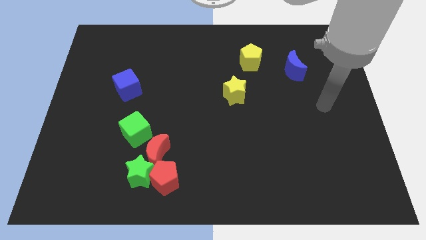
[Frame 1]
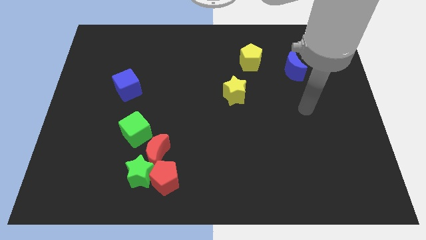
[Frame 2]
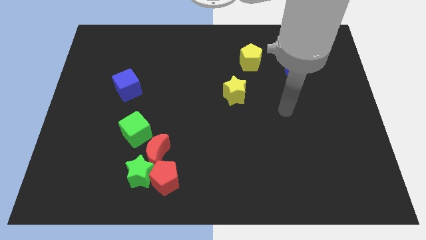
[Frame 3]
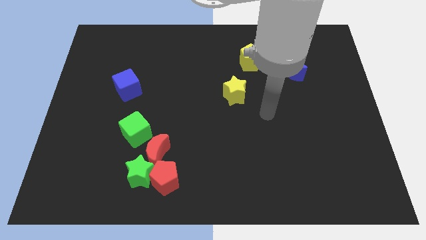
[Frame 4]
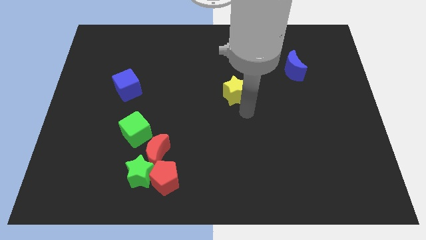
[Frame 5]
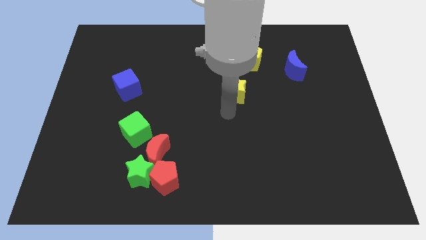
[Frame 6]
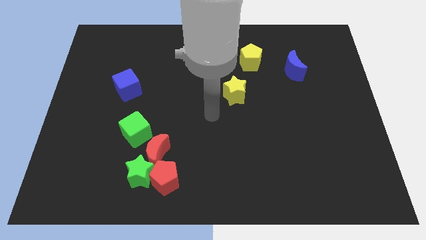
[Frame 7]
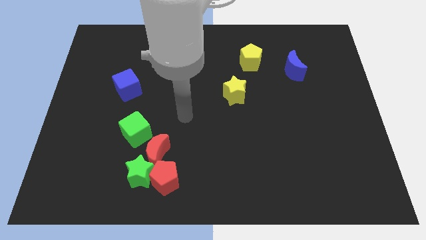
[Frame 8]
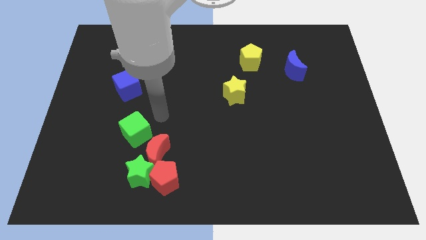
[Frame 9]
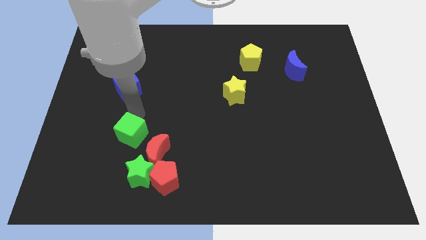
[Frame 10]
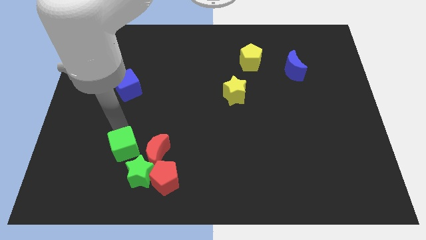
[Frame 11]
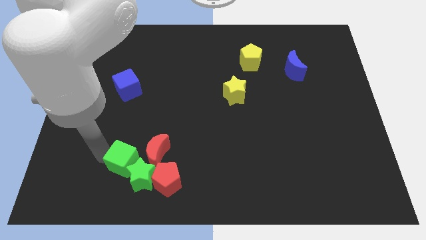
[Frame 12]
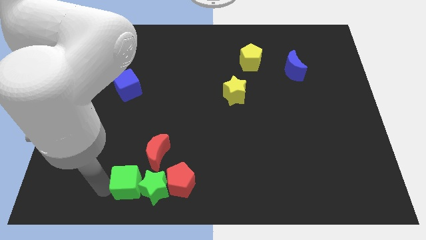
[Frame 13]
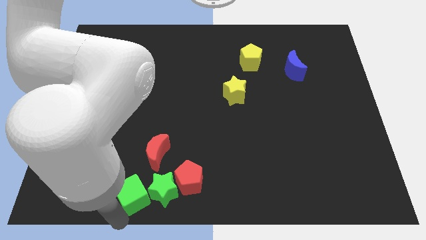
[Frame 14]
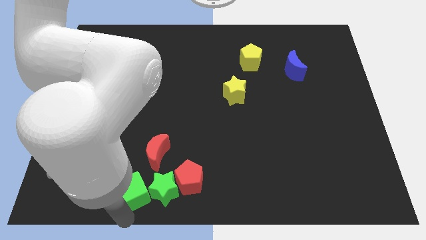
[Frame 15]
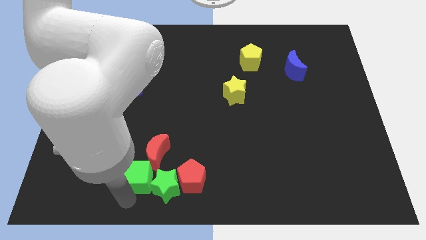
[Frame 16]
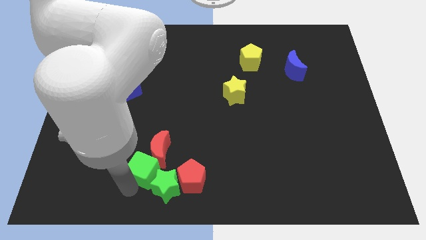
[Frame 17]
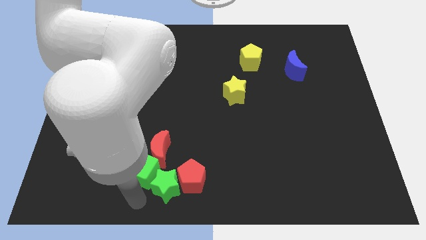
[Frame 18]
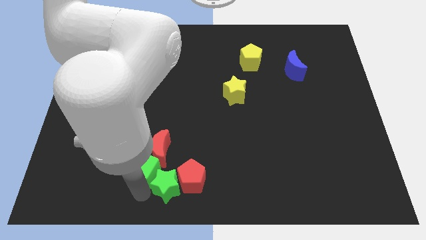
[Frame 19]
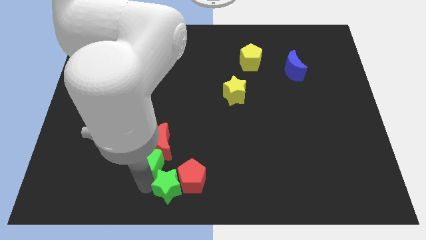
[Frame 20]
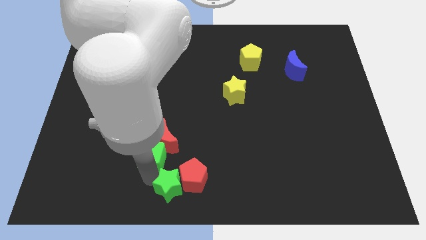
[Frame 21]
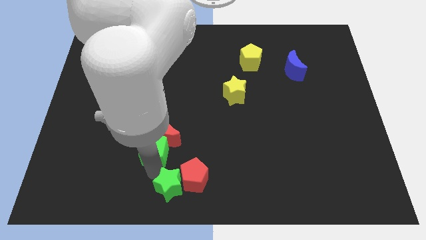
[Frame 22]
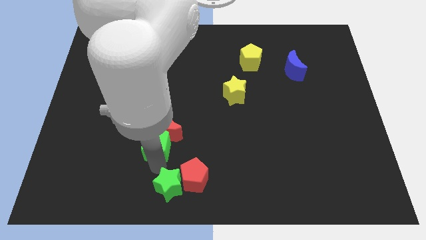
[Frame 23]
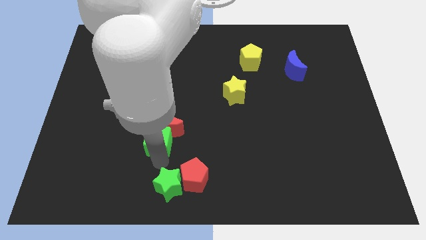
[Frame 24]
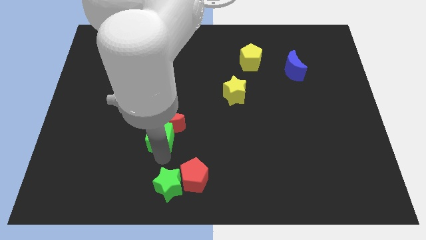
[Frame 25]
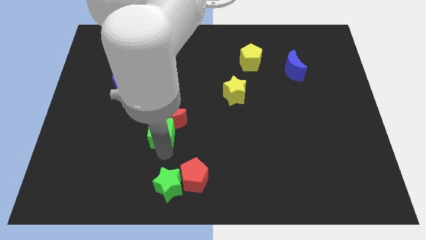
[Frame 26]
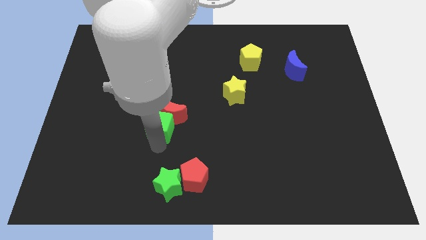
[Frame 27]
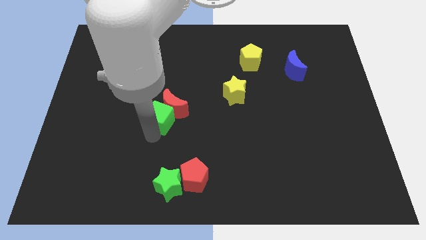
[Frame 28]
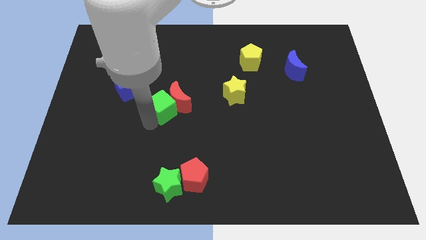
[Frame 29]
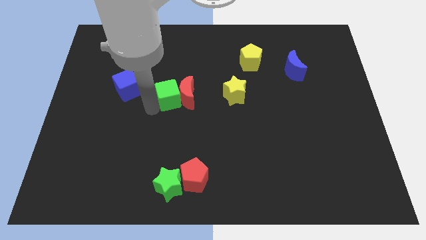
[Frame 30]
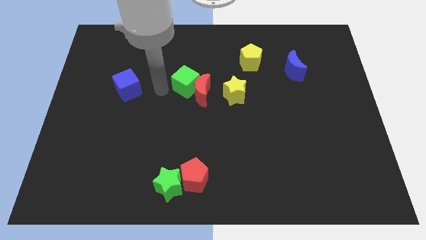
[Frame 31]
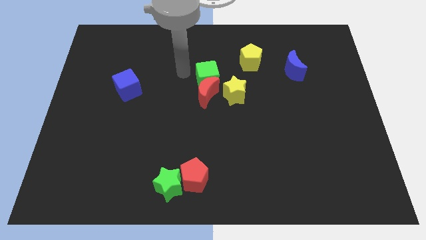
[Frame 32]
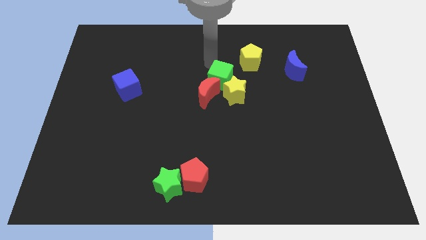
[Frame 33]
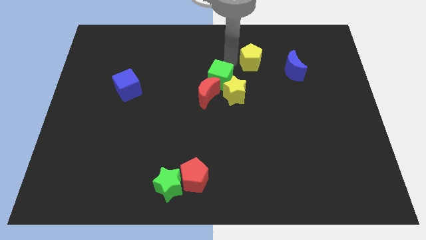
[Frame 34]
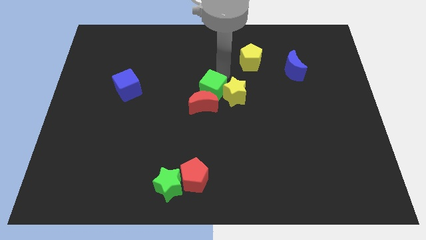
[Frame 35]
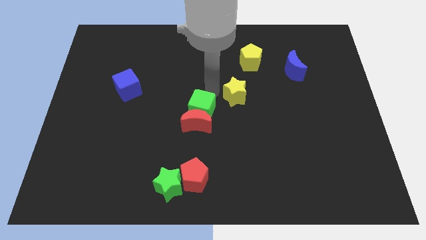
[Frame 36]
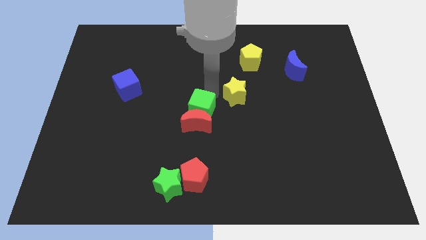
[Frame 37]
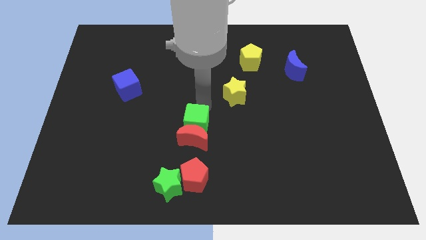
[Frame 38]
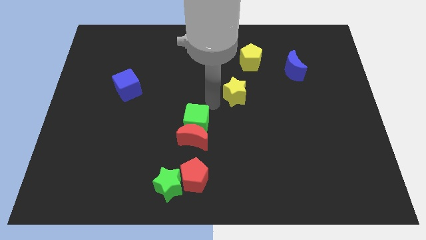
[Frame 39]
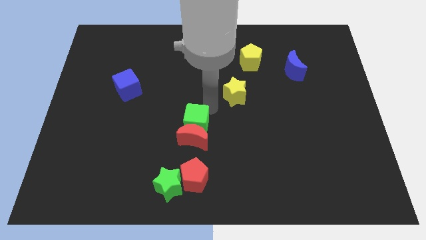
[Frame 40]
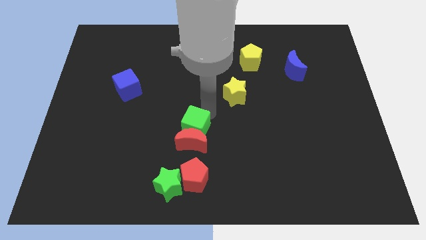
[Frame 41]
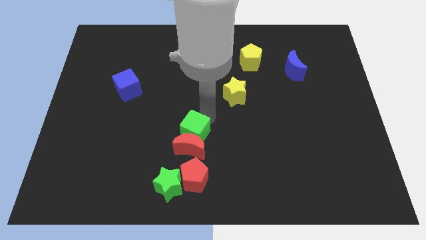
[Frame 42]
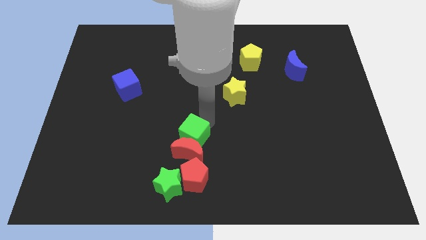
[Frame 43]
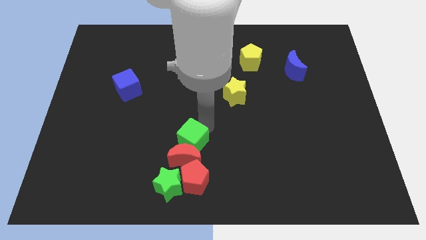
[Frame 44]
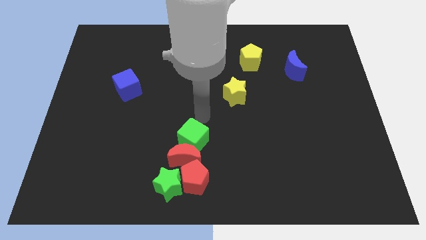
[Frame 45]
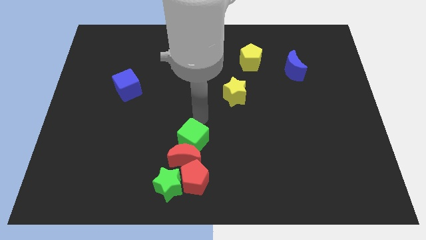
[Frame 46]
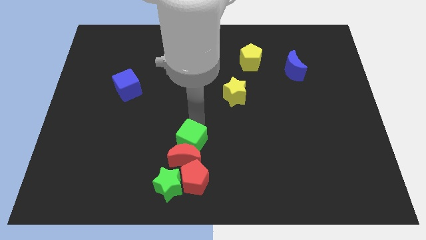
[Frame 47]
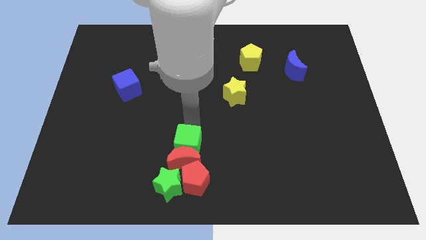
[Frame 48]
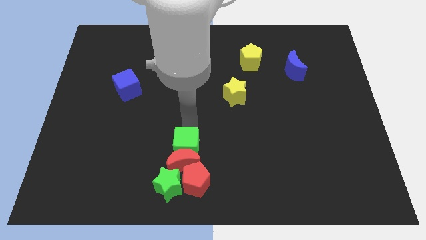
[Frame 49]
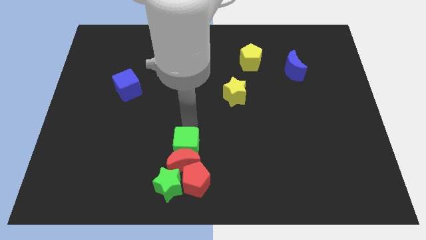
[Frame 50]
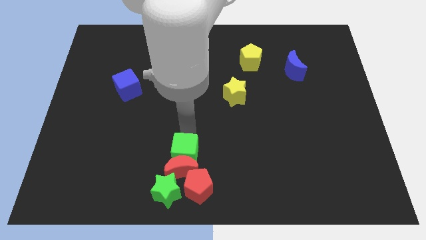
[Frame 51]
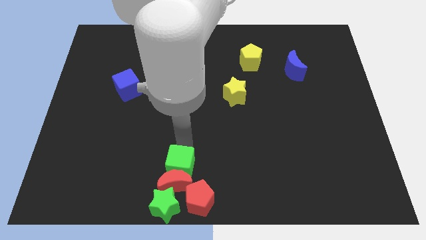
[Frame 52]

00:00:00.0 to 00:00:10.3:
push the green cube to the bottom

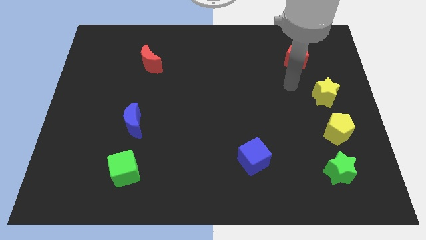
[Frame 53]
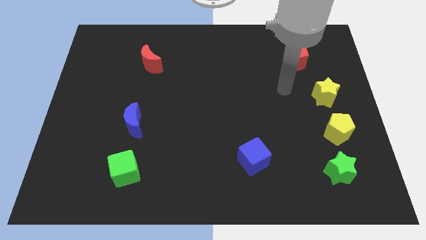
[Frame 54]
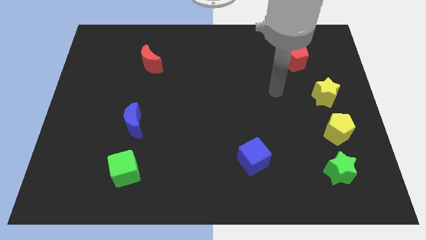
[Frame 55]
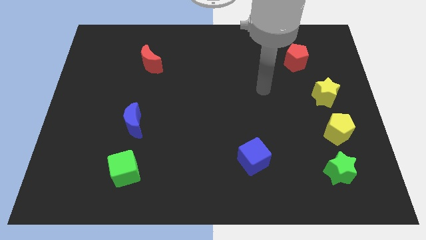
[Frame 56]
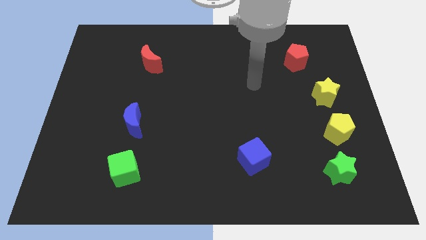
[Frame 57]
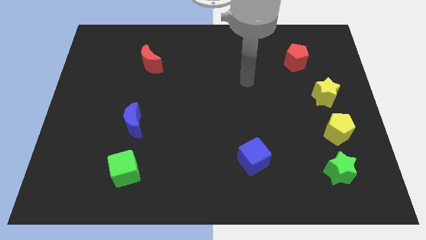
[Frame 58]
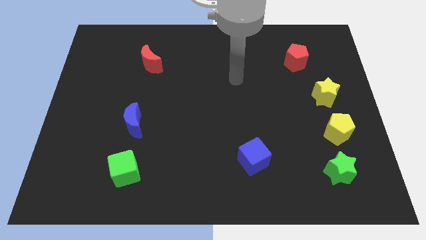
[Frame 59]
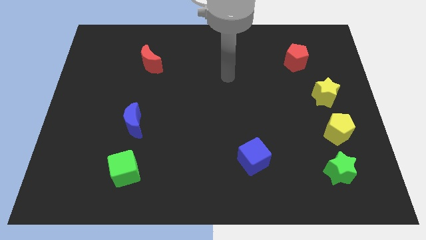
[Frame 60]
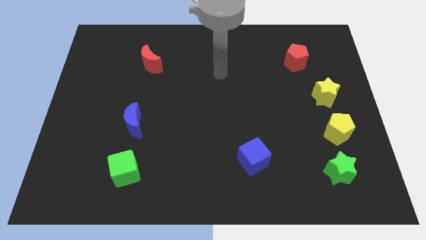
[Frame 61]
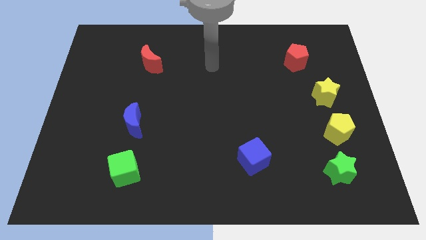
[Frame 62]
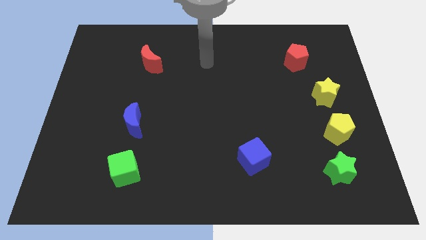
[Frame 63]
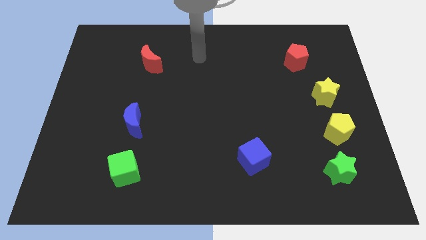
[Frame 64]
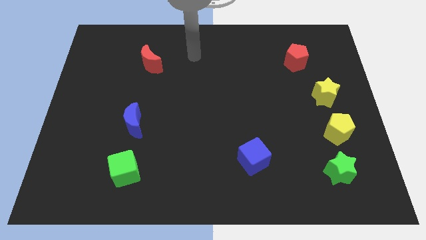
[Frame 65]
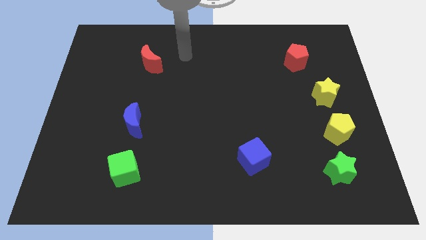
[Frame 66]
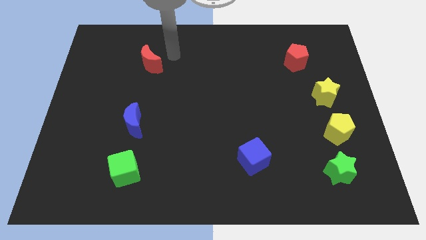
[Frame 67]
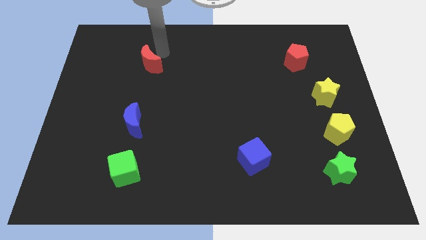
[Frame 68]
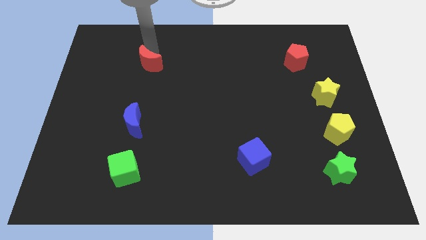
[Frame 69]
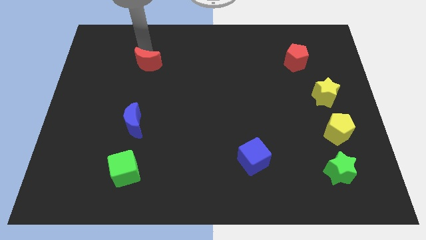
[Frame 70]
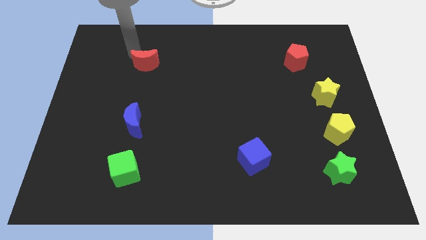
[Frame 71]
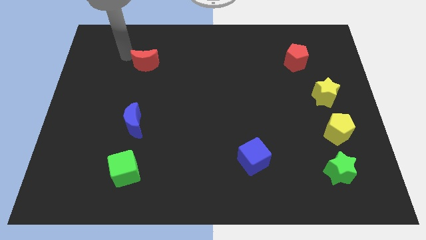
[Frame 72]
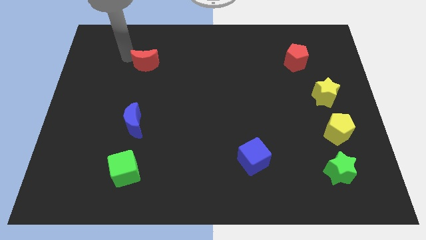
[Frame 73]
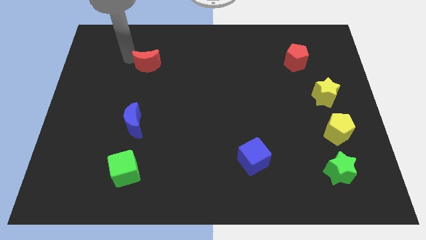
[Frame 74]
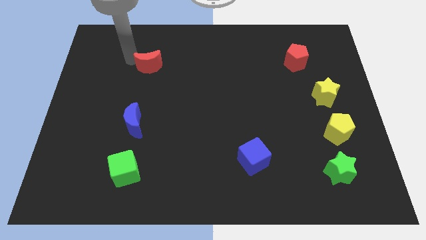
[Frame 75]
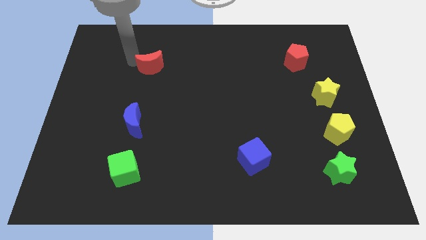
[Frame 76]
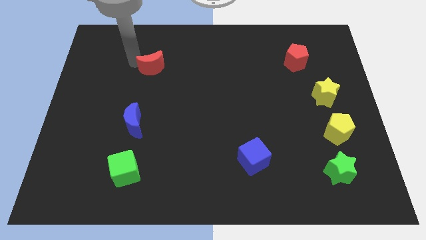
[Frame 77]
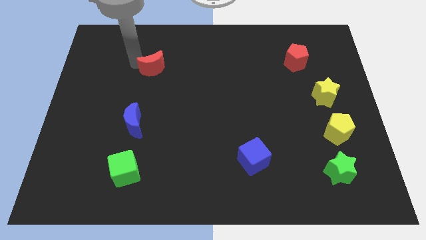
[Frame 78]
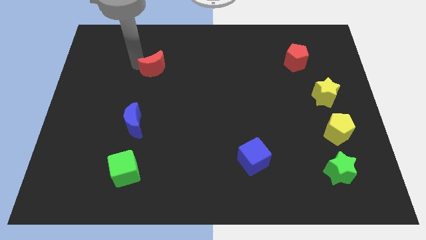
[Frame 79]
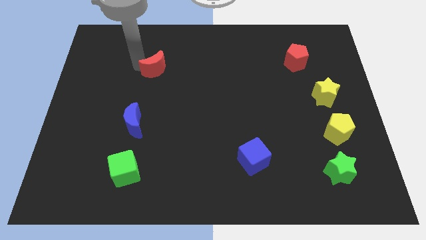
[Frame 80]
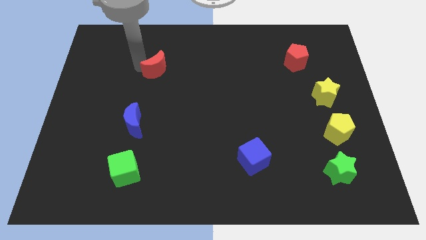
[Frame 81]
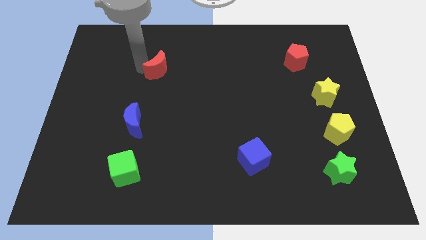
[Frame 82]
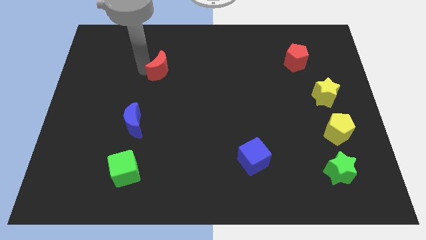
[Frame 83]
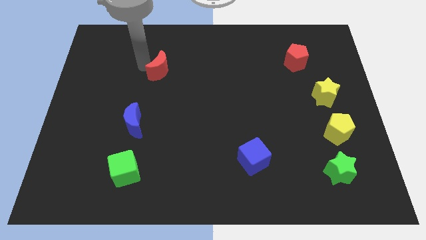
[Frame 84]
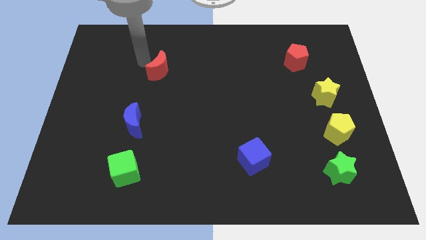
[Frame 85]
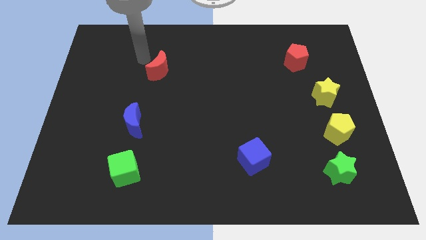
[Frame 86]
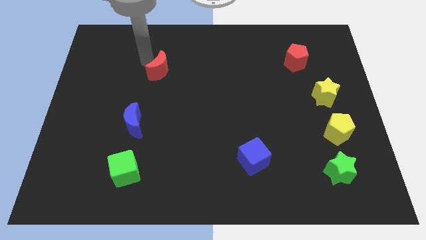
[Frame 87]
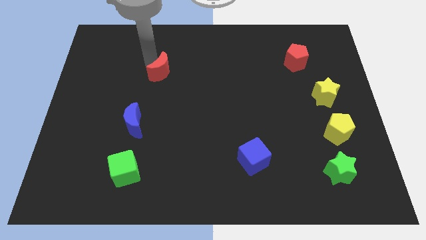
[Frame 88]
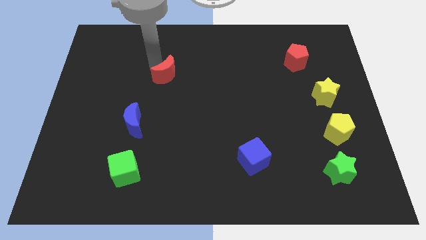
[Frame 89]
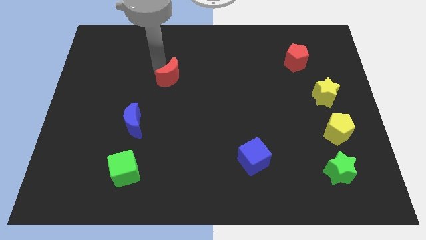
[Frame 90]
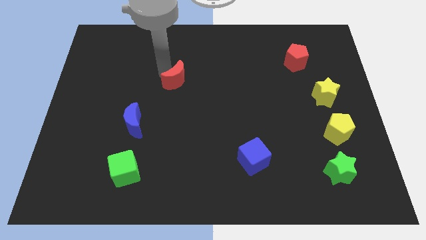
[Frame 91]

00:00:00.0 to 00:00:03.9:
push the red moon to the center of the board
